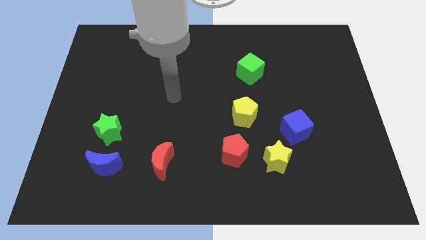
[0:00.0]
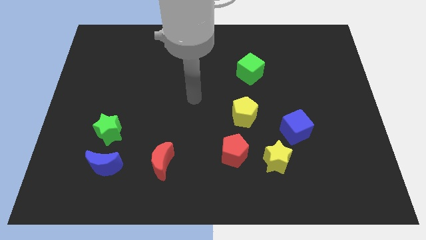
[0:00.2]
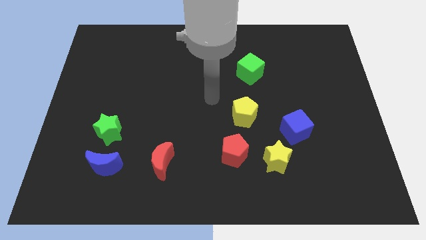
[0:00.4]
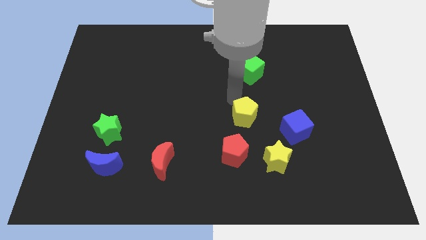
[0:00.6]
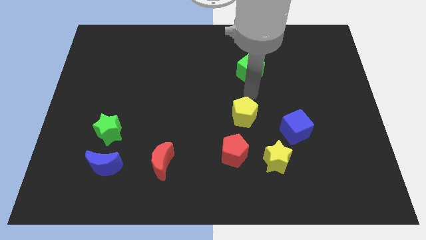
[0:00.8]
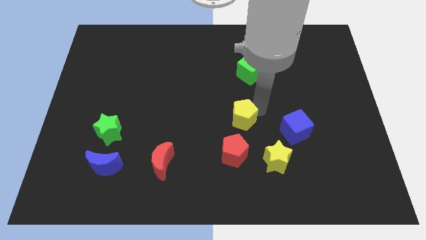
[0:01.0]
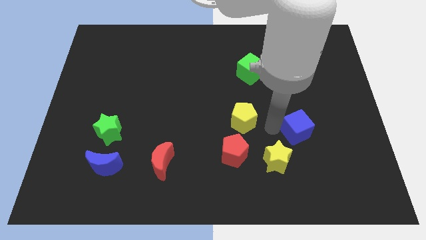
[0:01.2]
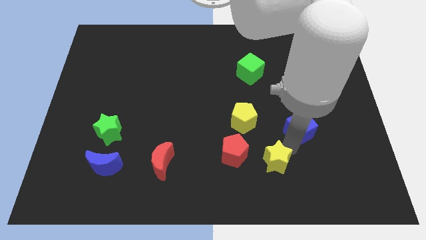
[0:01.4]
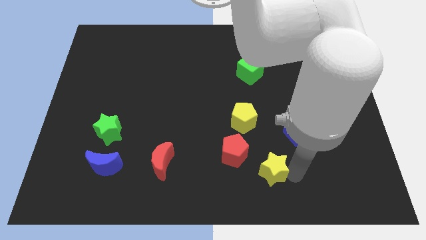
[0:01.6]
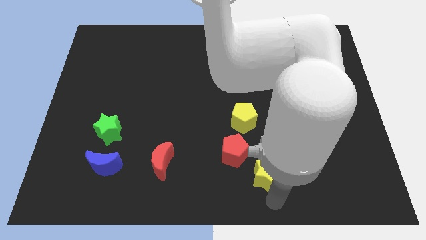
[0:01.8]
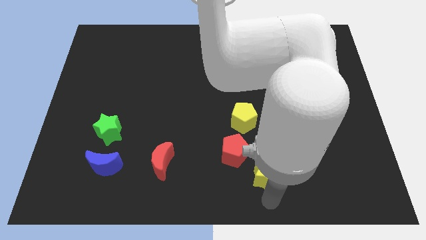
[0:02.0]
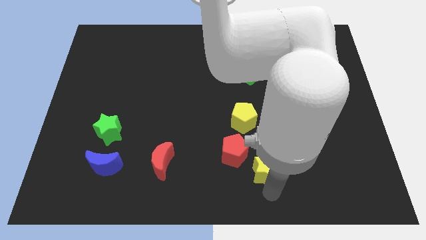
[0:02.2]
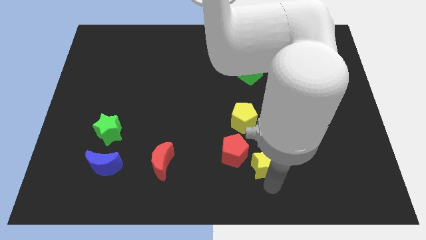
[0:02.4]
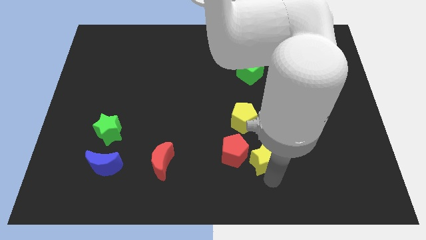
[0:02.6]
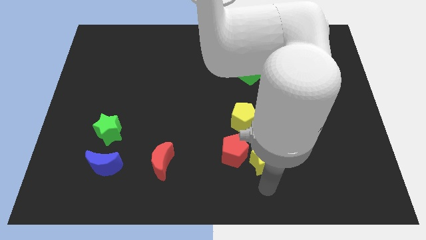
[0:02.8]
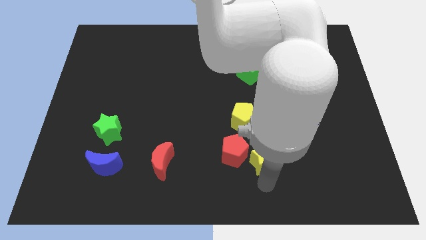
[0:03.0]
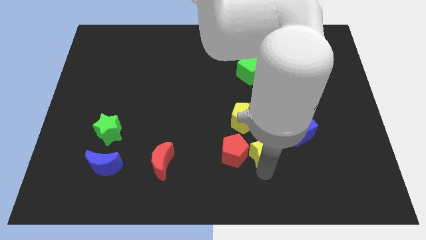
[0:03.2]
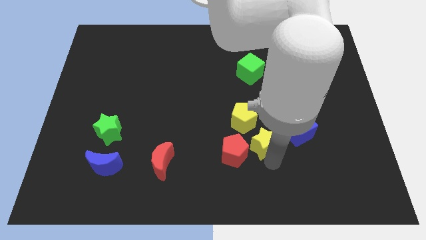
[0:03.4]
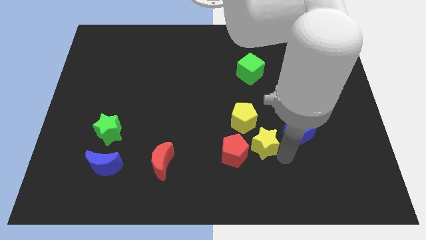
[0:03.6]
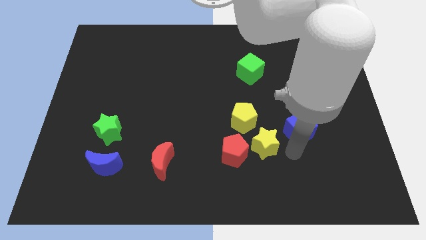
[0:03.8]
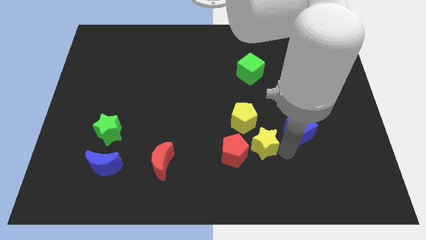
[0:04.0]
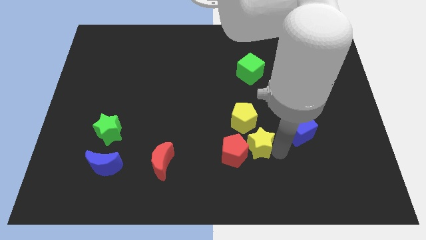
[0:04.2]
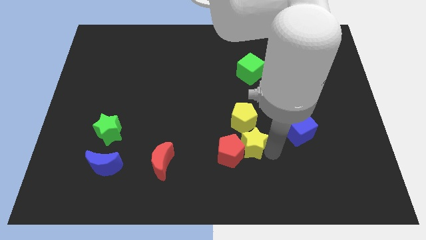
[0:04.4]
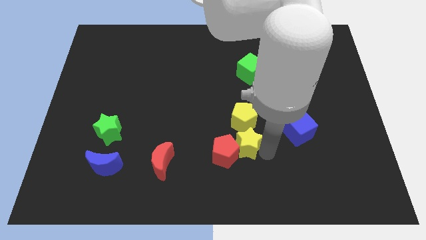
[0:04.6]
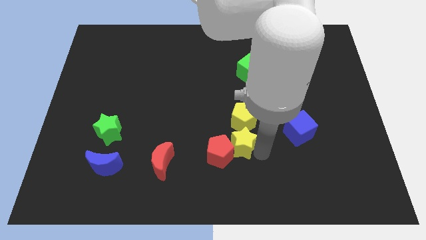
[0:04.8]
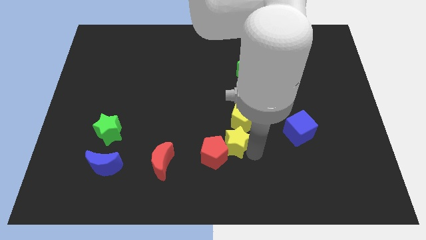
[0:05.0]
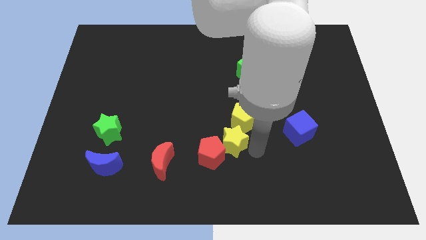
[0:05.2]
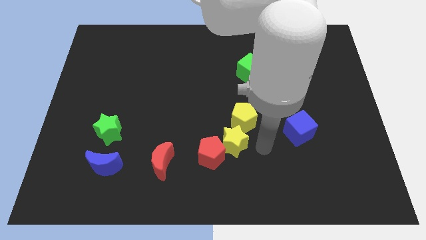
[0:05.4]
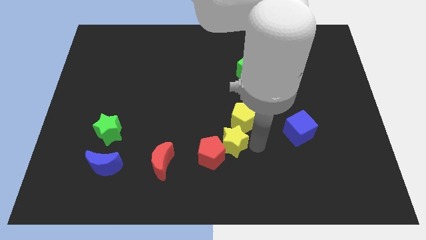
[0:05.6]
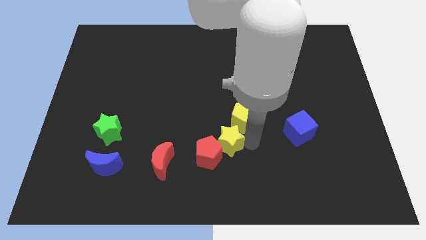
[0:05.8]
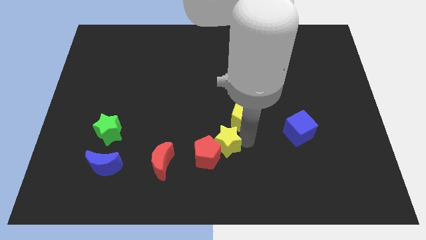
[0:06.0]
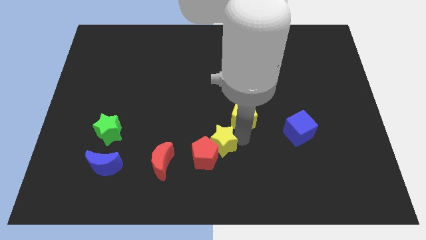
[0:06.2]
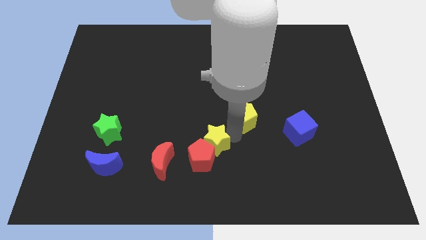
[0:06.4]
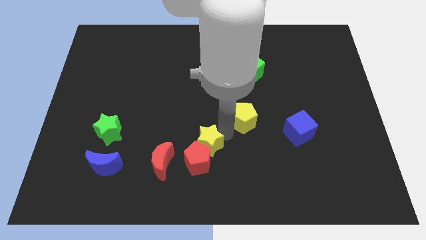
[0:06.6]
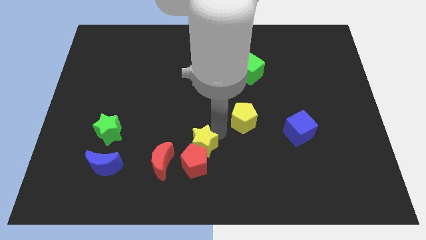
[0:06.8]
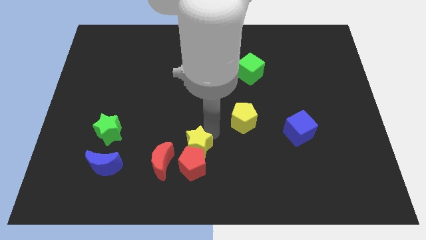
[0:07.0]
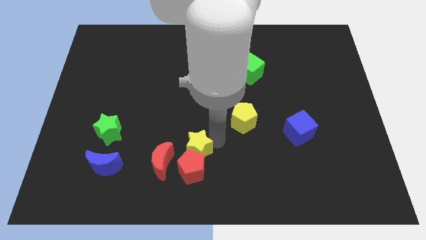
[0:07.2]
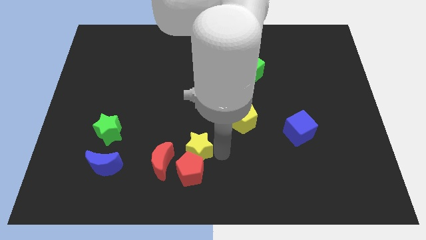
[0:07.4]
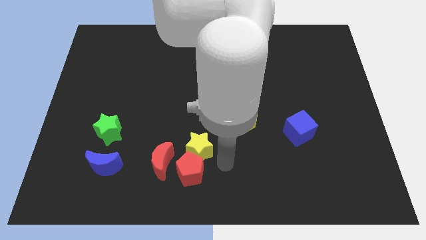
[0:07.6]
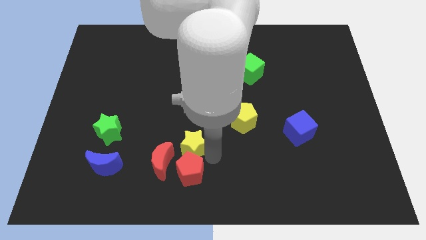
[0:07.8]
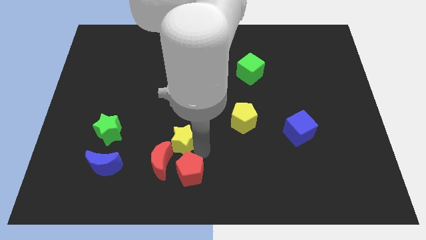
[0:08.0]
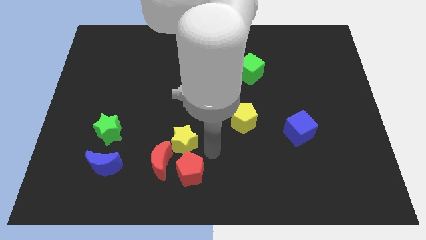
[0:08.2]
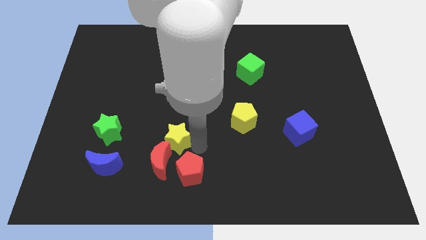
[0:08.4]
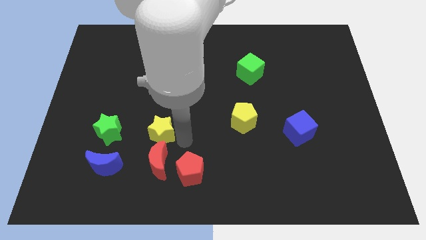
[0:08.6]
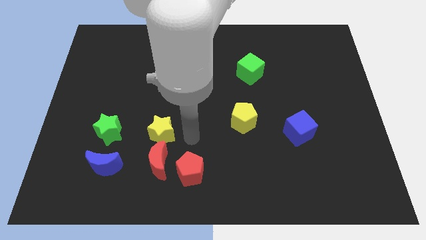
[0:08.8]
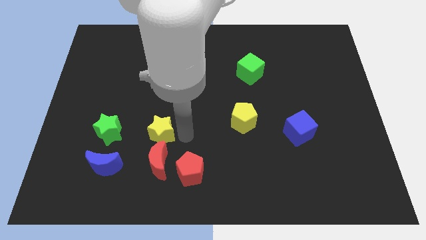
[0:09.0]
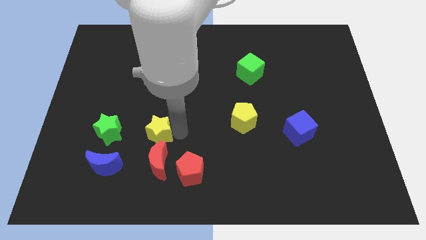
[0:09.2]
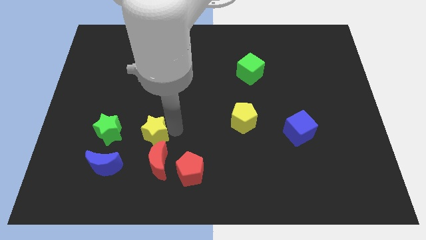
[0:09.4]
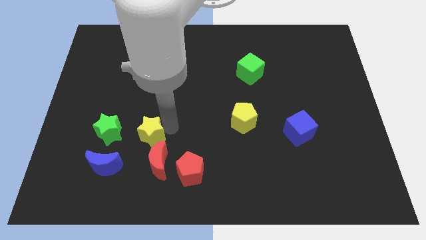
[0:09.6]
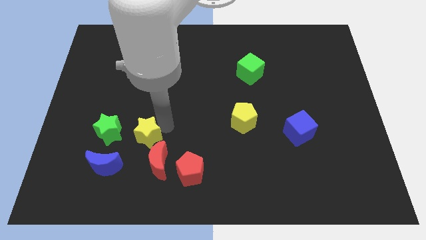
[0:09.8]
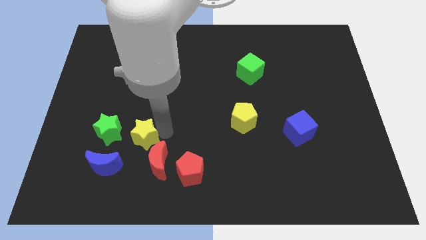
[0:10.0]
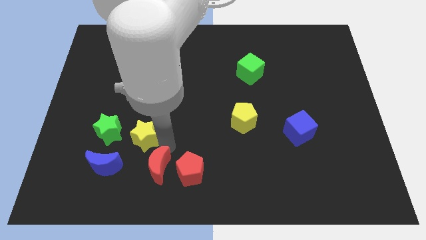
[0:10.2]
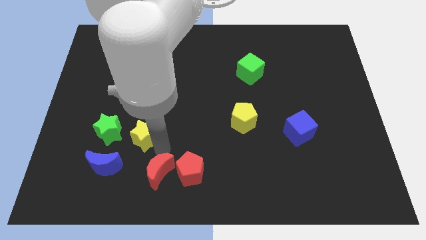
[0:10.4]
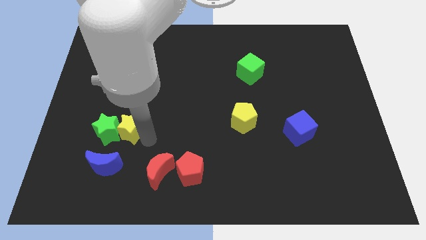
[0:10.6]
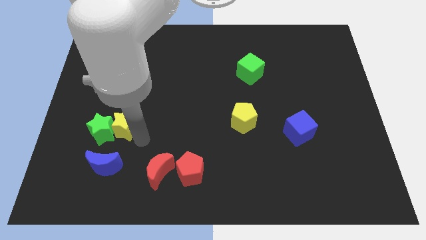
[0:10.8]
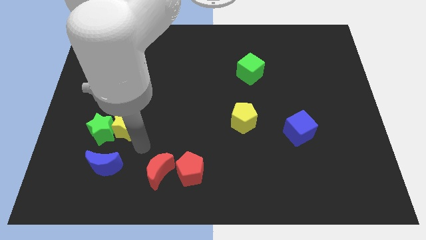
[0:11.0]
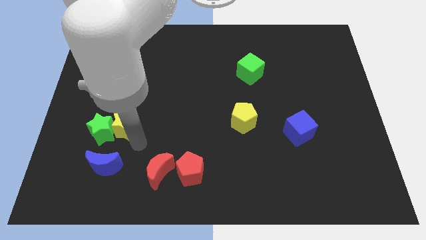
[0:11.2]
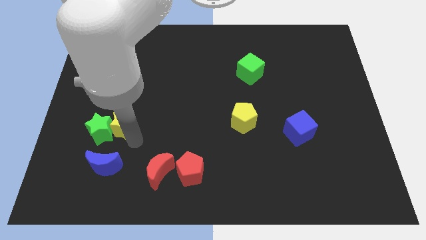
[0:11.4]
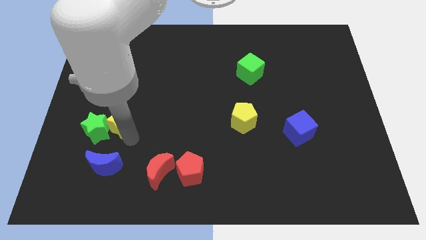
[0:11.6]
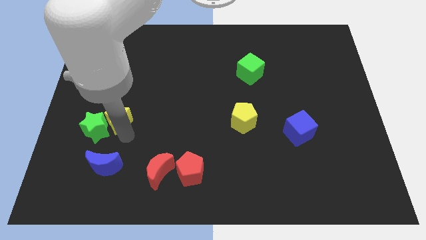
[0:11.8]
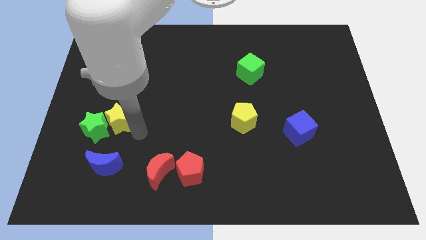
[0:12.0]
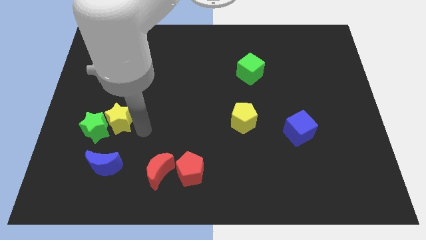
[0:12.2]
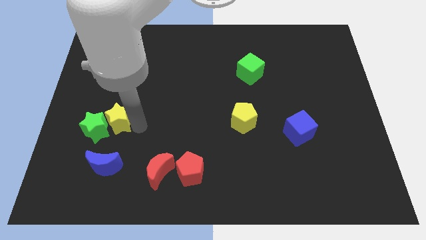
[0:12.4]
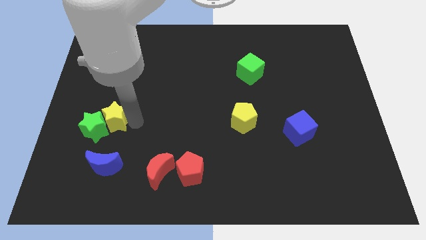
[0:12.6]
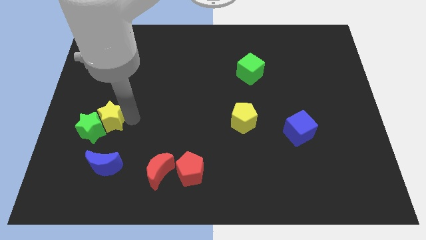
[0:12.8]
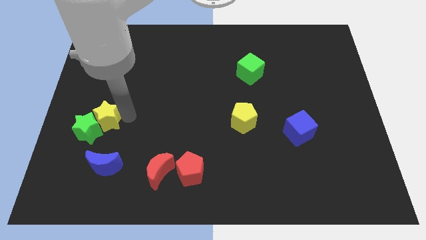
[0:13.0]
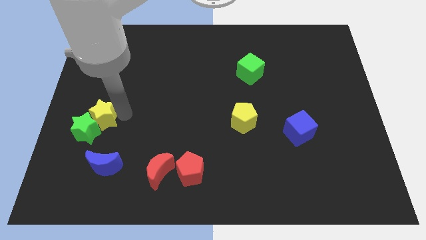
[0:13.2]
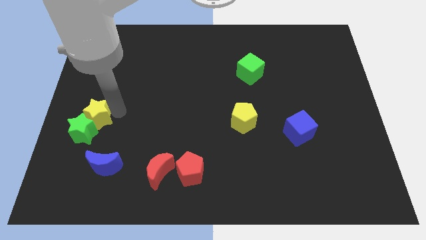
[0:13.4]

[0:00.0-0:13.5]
put the yellow star to the center left
